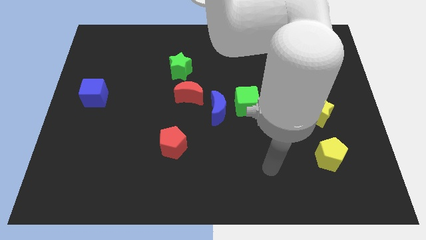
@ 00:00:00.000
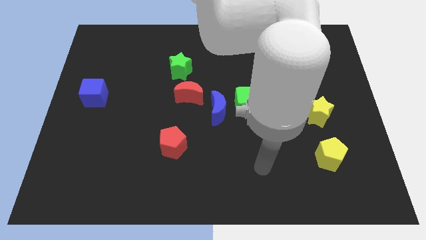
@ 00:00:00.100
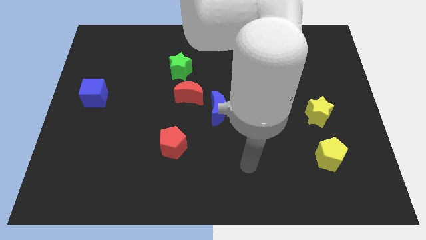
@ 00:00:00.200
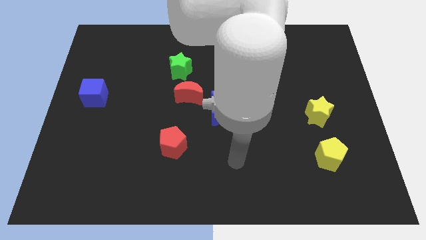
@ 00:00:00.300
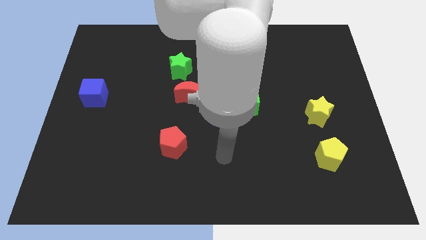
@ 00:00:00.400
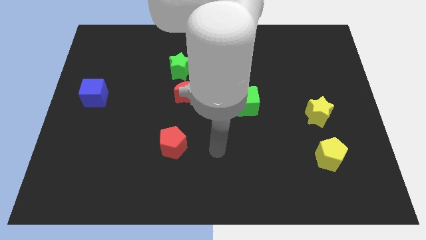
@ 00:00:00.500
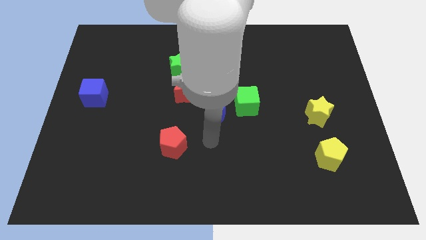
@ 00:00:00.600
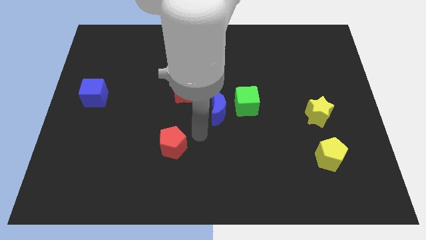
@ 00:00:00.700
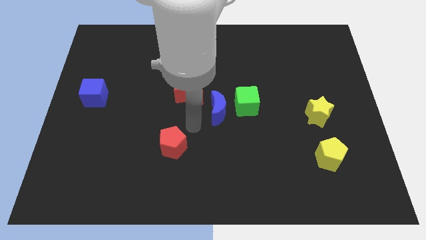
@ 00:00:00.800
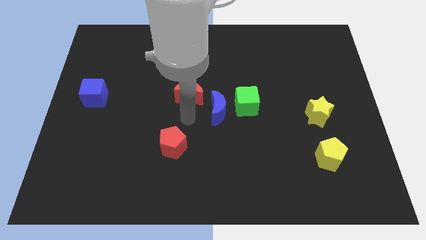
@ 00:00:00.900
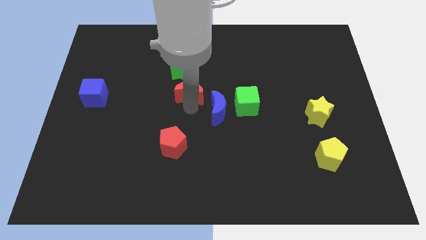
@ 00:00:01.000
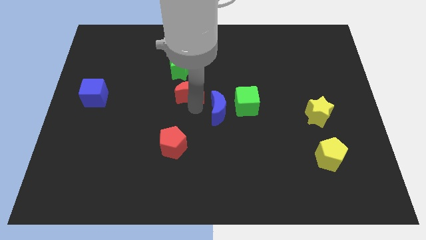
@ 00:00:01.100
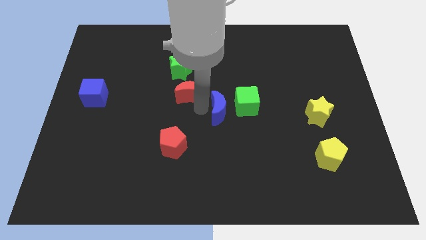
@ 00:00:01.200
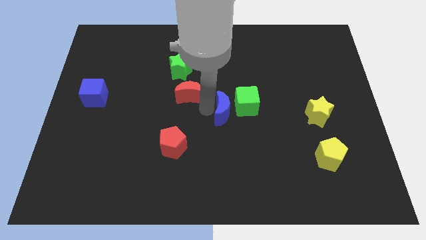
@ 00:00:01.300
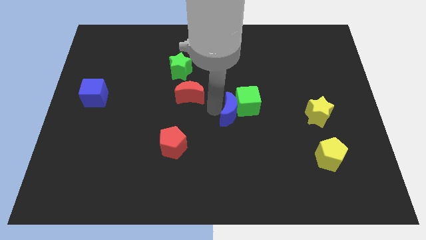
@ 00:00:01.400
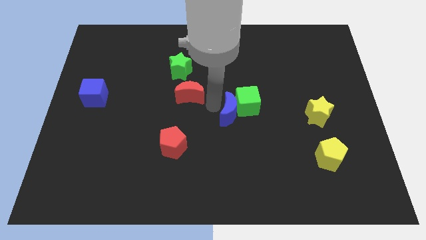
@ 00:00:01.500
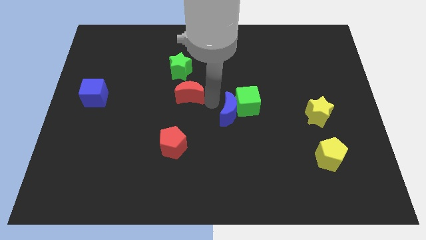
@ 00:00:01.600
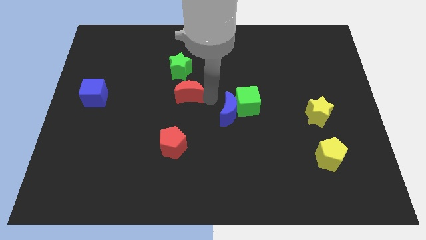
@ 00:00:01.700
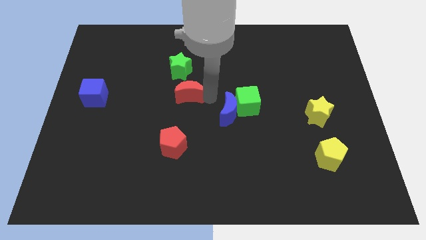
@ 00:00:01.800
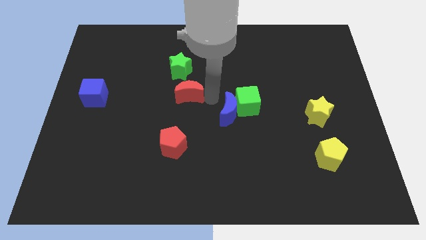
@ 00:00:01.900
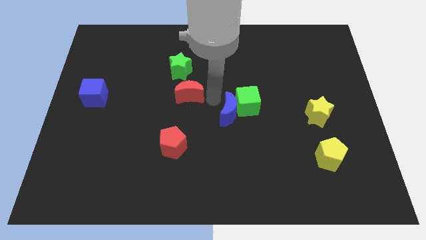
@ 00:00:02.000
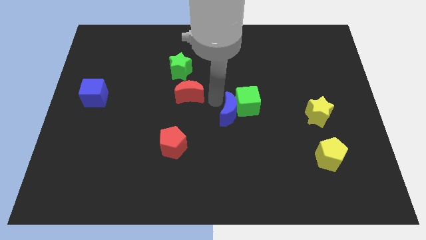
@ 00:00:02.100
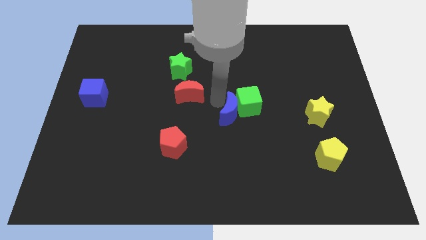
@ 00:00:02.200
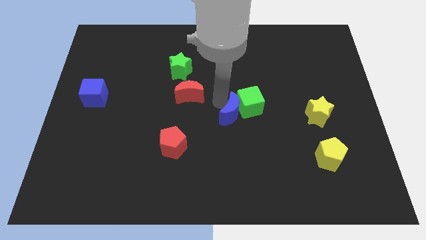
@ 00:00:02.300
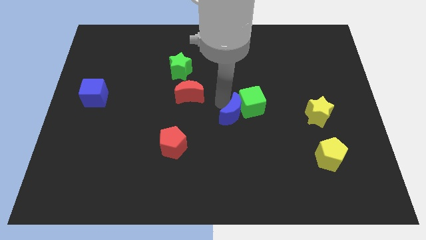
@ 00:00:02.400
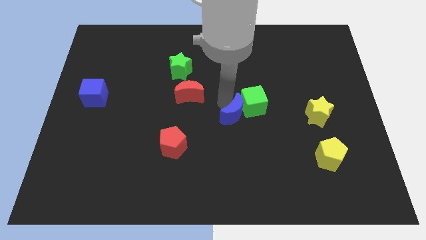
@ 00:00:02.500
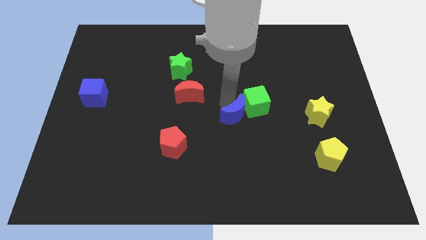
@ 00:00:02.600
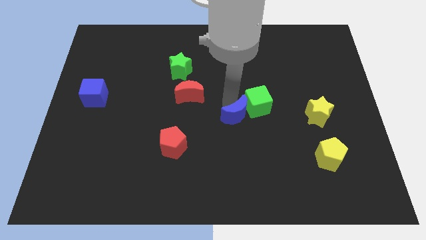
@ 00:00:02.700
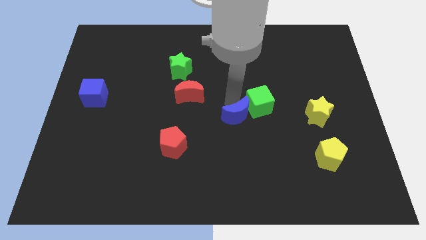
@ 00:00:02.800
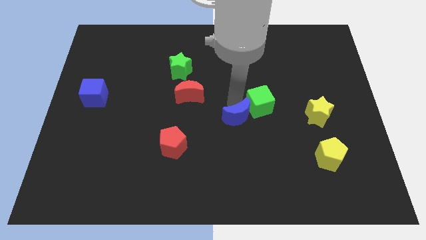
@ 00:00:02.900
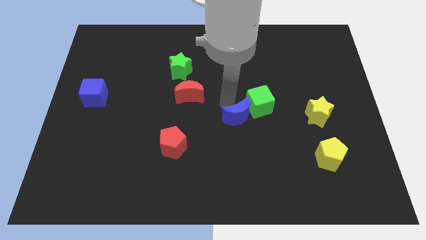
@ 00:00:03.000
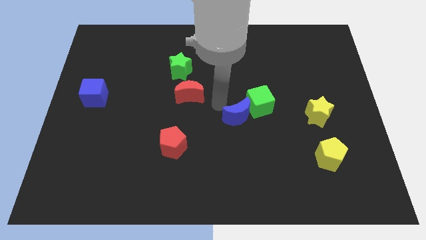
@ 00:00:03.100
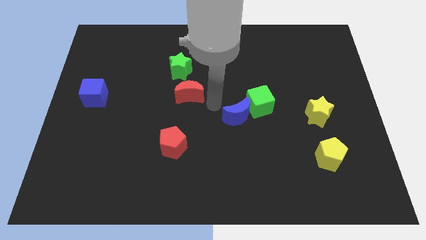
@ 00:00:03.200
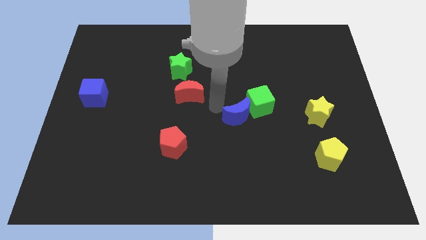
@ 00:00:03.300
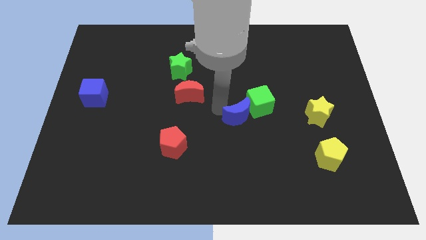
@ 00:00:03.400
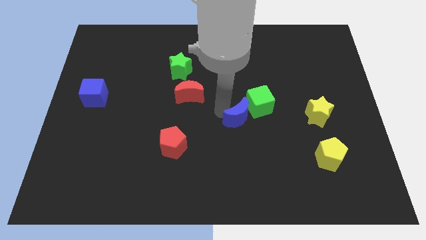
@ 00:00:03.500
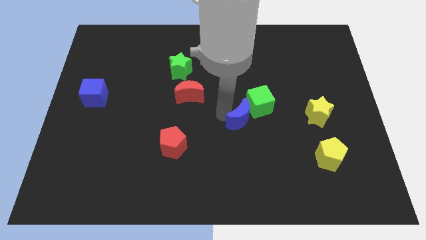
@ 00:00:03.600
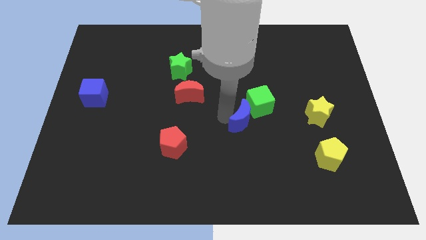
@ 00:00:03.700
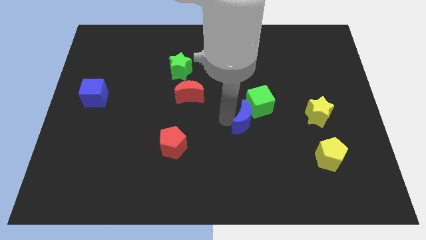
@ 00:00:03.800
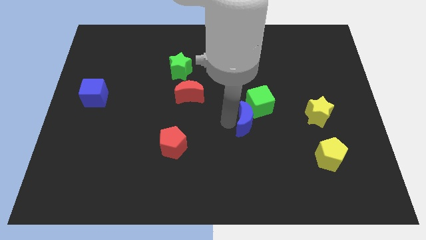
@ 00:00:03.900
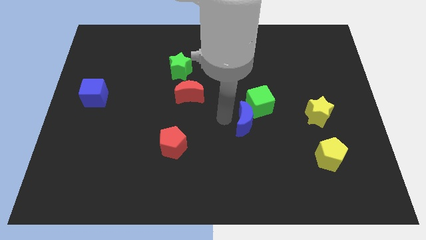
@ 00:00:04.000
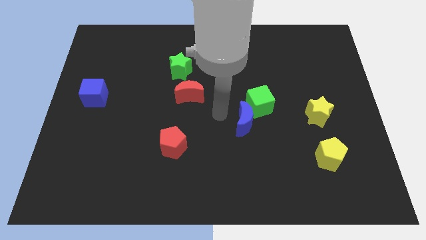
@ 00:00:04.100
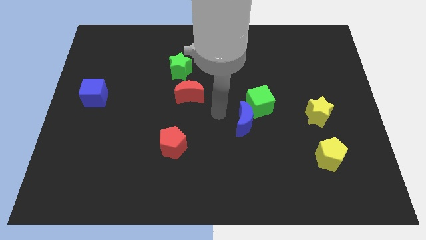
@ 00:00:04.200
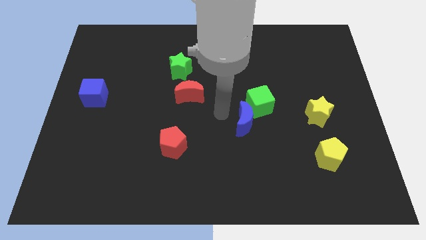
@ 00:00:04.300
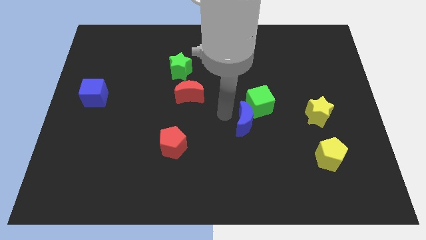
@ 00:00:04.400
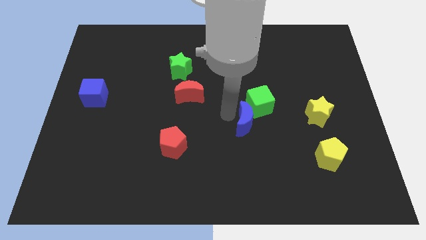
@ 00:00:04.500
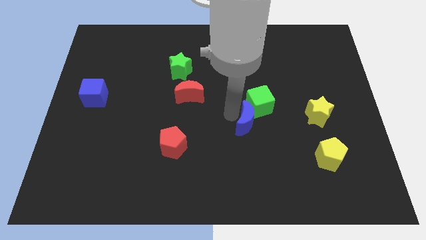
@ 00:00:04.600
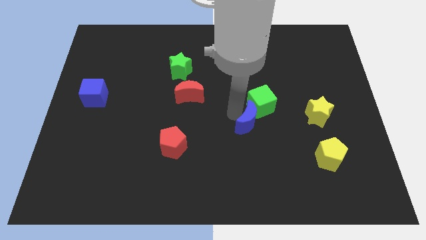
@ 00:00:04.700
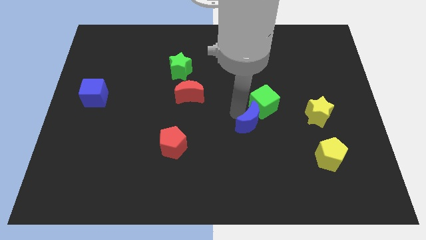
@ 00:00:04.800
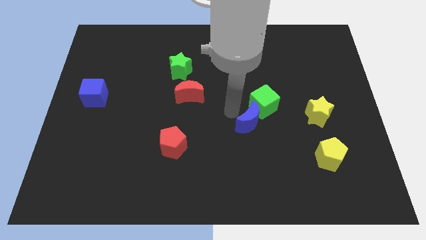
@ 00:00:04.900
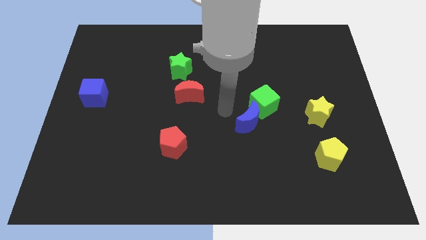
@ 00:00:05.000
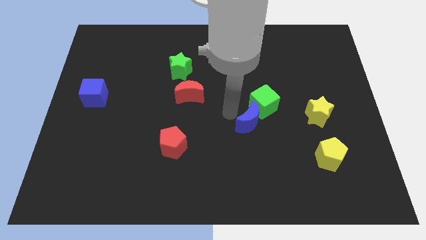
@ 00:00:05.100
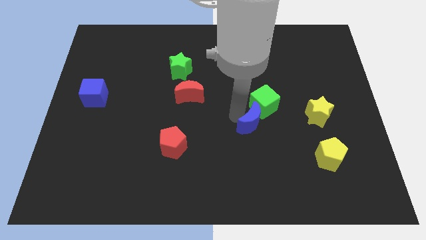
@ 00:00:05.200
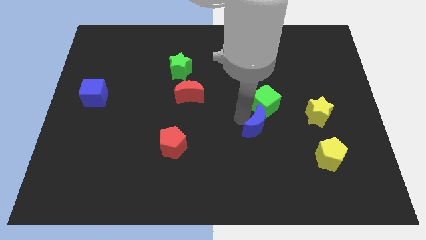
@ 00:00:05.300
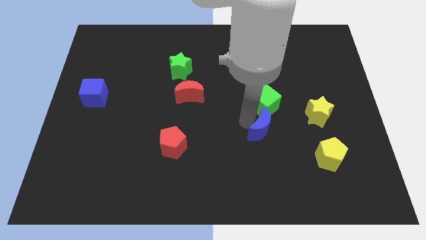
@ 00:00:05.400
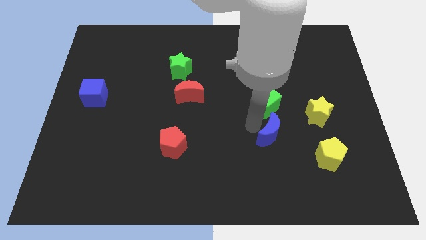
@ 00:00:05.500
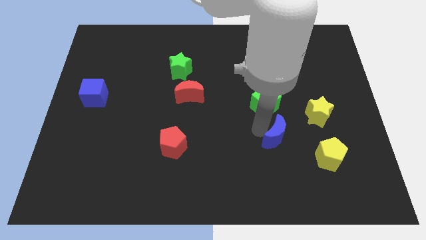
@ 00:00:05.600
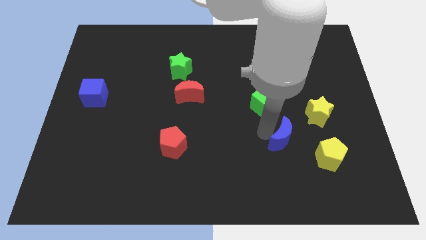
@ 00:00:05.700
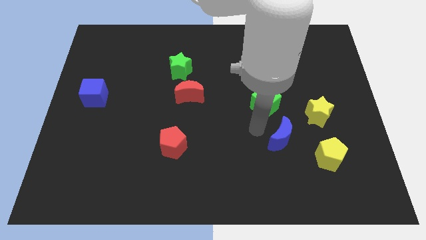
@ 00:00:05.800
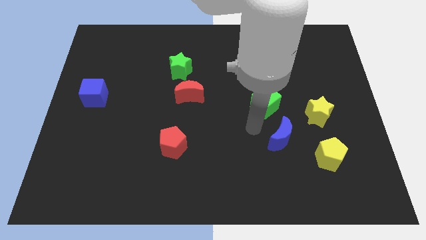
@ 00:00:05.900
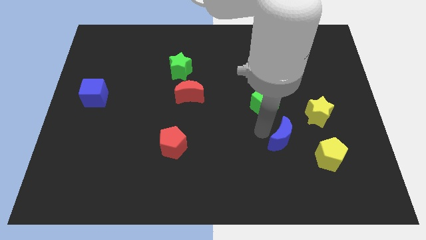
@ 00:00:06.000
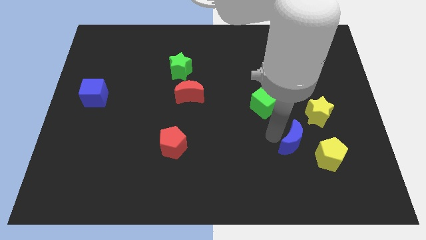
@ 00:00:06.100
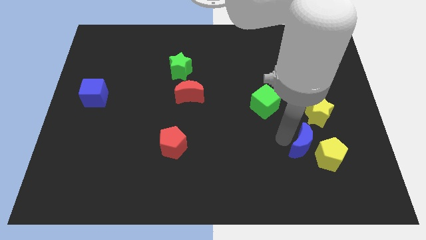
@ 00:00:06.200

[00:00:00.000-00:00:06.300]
put the blue moon close to the yellow pentagon
